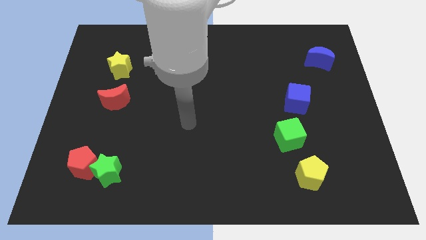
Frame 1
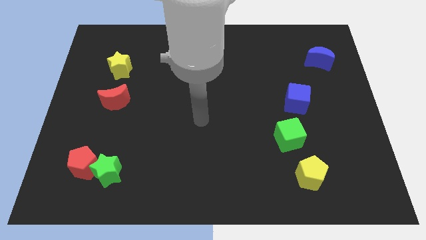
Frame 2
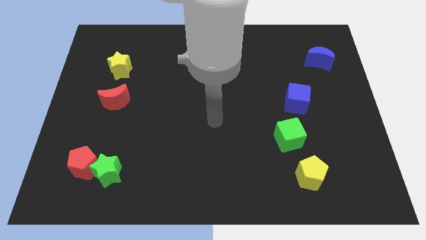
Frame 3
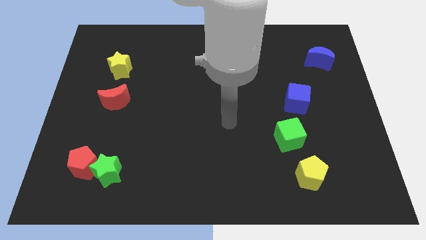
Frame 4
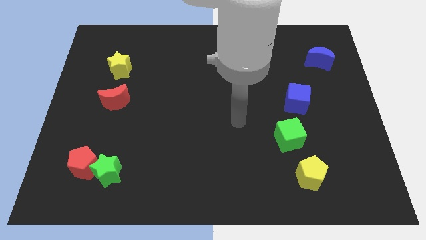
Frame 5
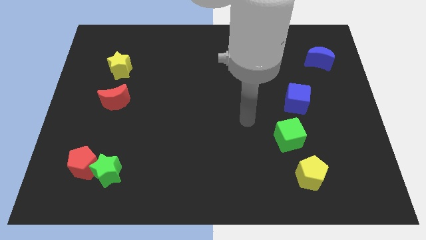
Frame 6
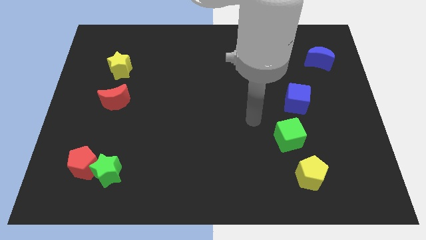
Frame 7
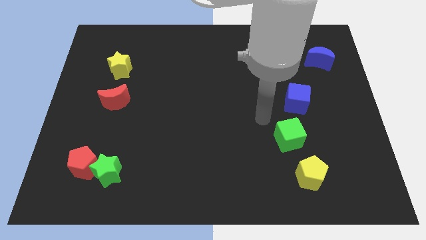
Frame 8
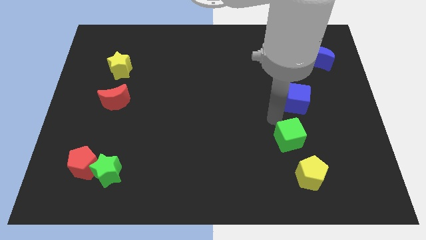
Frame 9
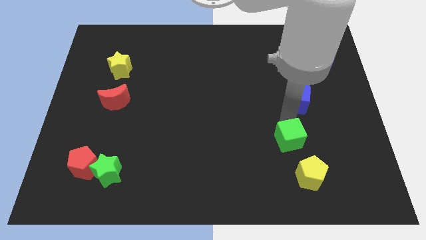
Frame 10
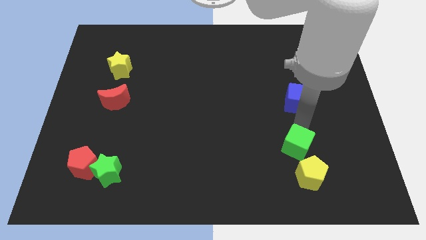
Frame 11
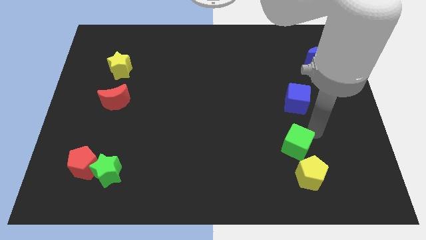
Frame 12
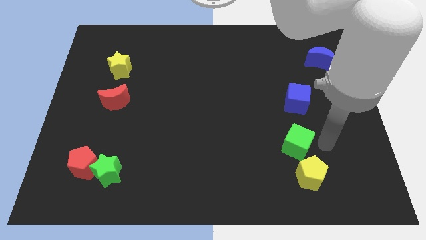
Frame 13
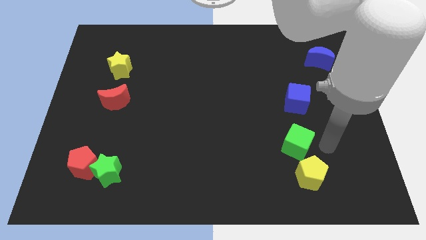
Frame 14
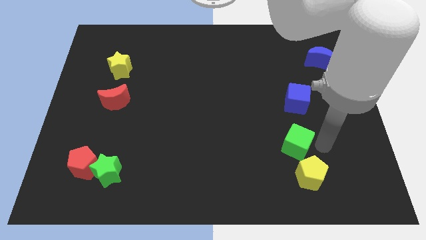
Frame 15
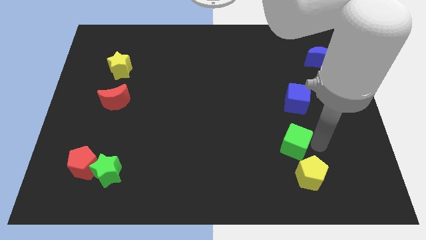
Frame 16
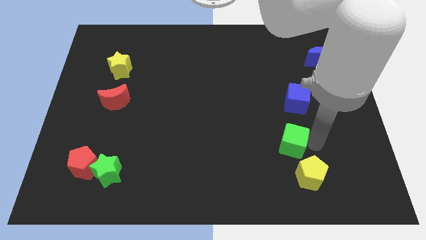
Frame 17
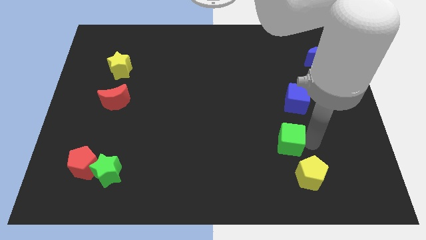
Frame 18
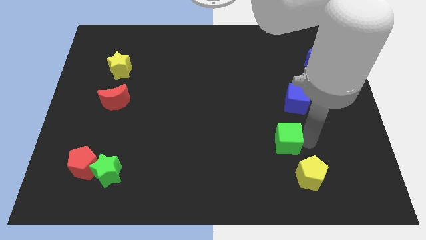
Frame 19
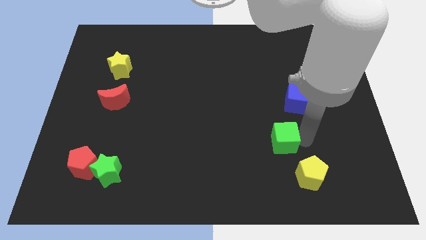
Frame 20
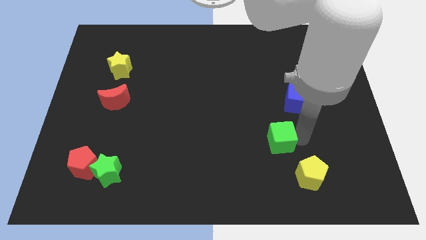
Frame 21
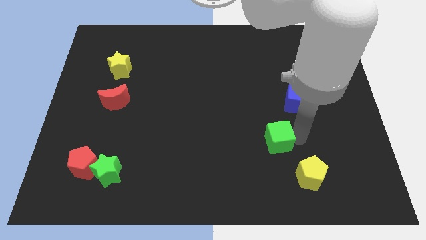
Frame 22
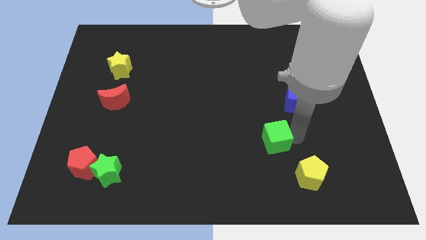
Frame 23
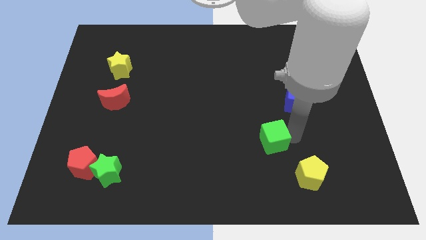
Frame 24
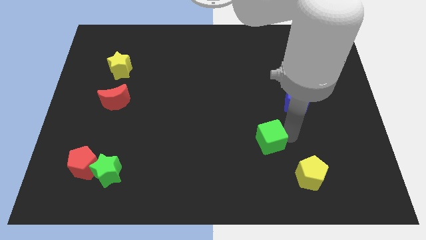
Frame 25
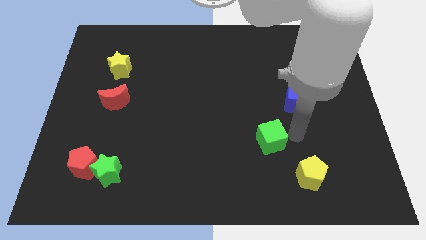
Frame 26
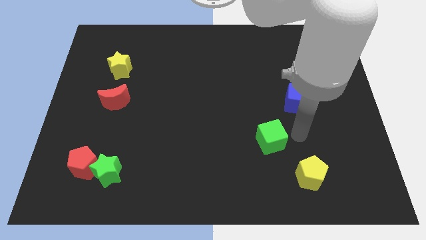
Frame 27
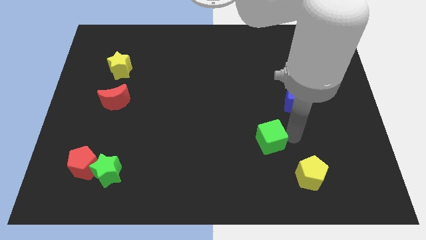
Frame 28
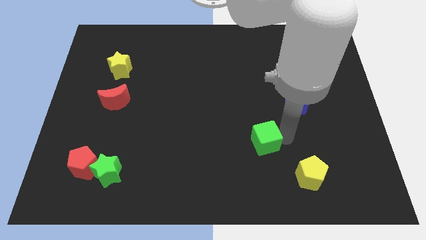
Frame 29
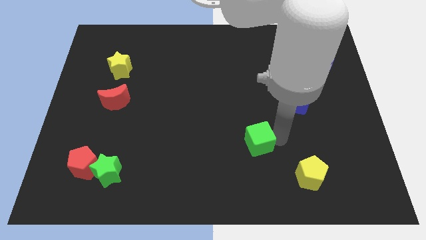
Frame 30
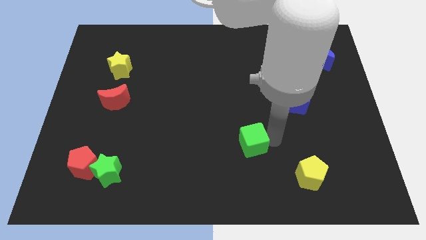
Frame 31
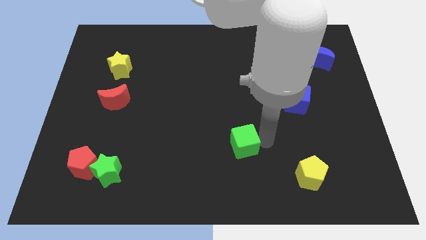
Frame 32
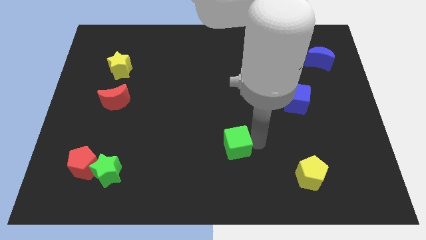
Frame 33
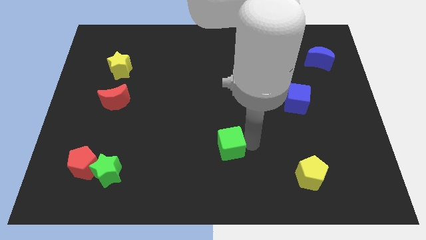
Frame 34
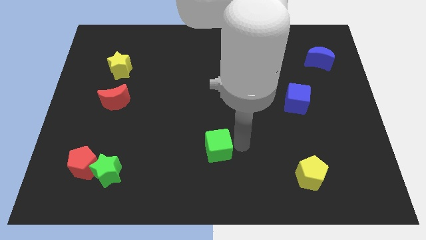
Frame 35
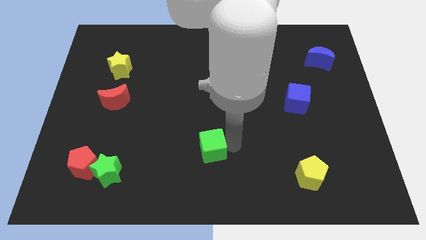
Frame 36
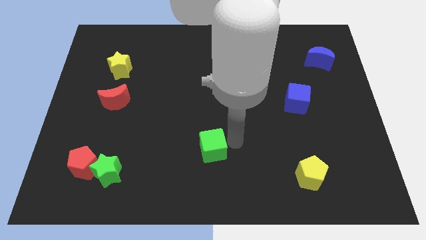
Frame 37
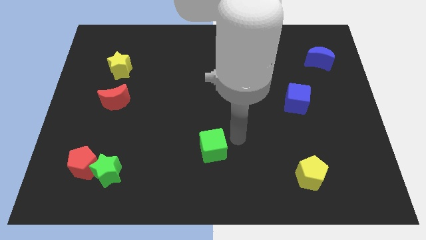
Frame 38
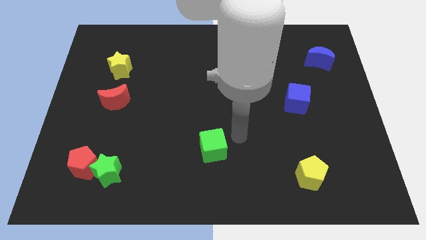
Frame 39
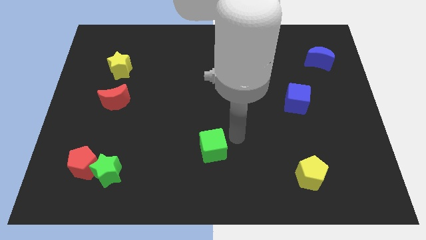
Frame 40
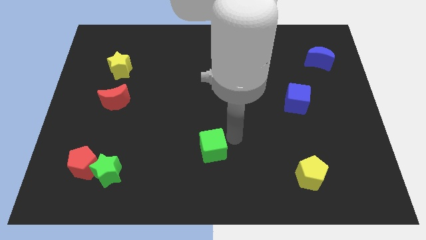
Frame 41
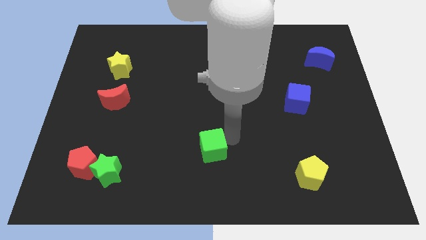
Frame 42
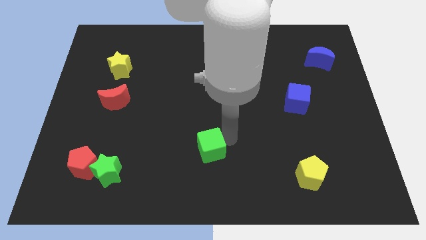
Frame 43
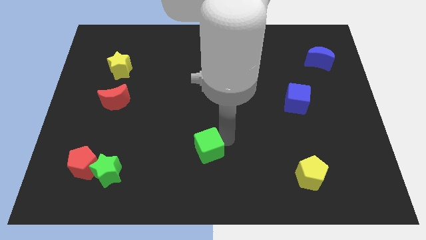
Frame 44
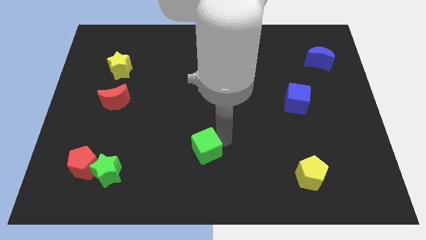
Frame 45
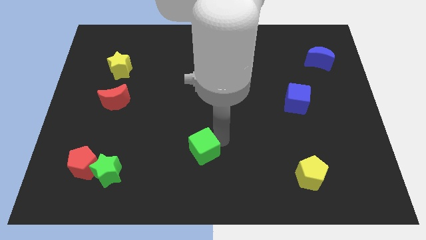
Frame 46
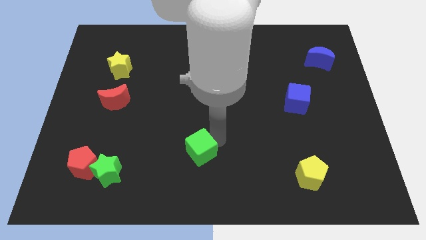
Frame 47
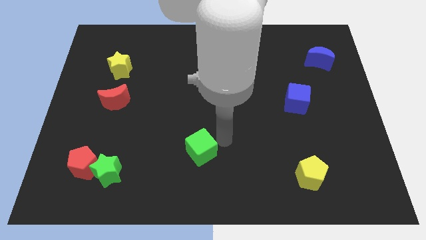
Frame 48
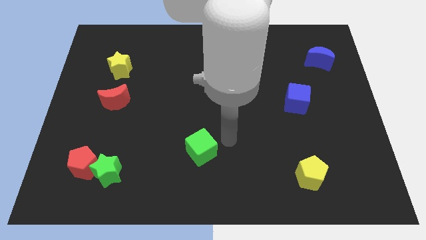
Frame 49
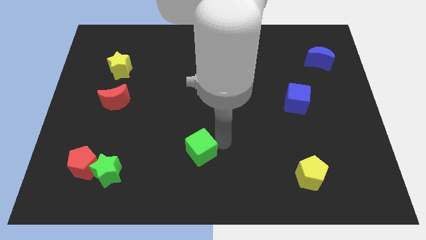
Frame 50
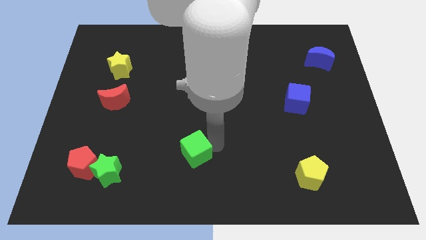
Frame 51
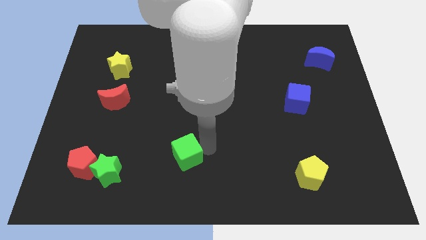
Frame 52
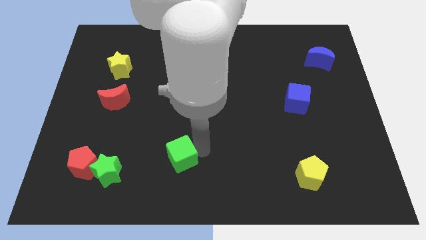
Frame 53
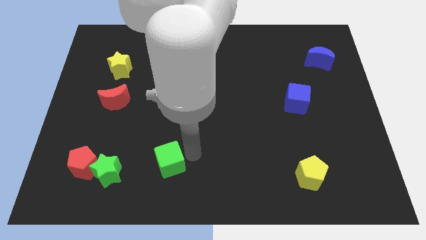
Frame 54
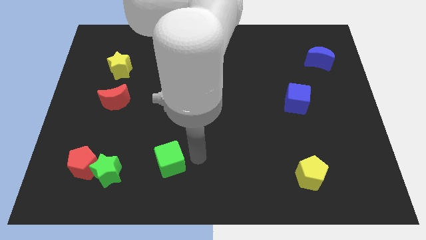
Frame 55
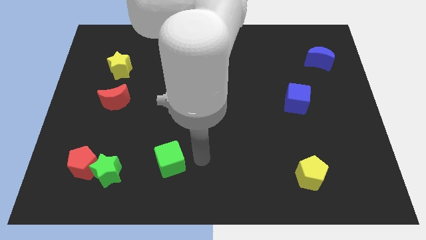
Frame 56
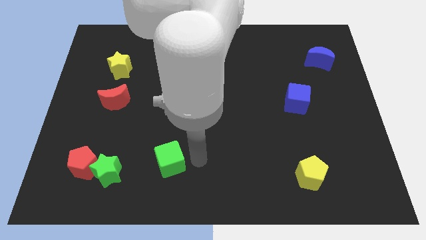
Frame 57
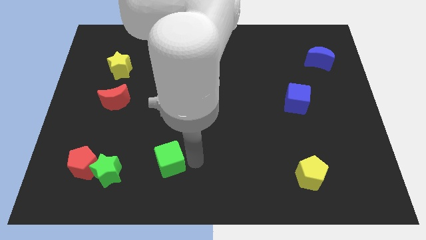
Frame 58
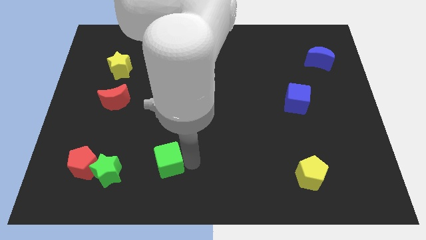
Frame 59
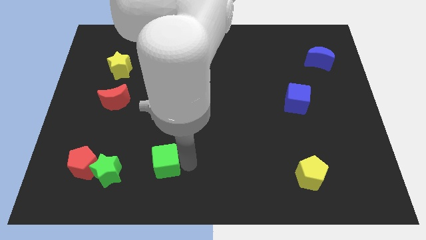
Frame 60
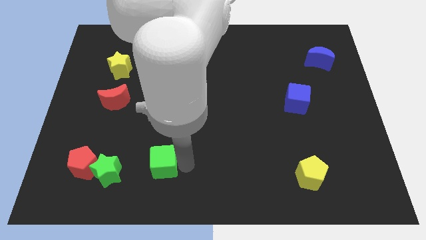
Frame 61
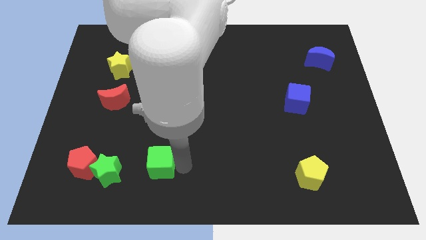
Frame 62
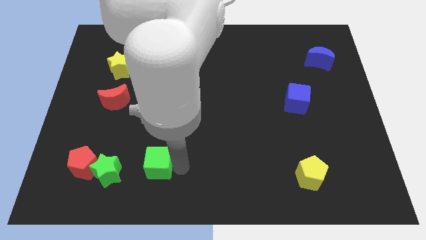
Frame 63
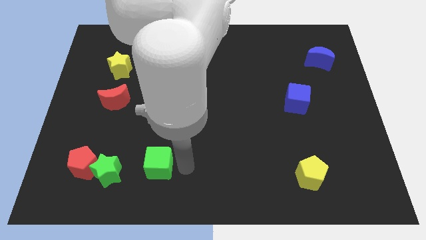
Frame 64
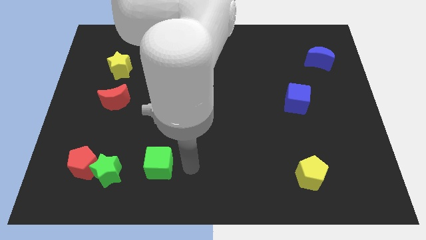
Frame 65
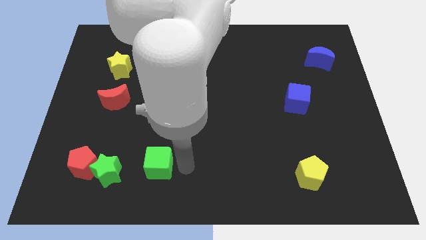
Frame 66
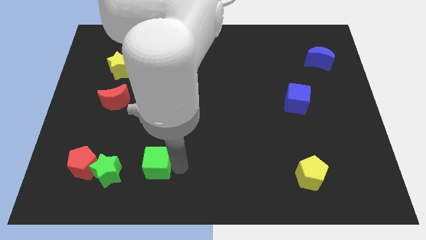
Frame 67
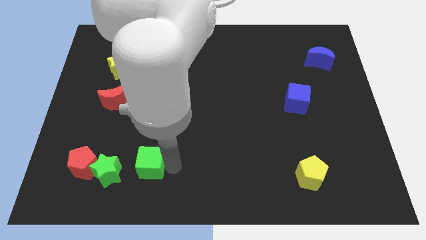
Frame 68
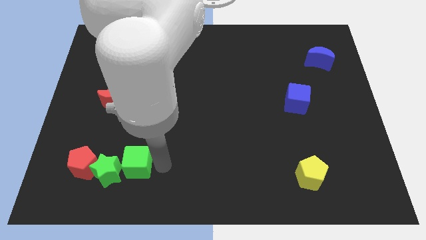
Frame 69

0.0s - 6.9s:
move the green cube close to the green star
